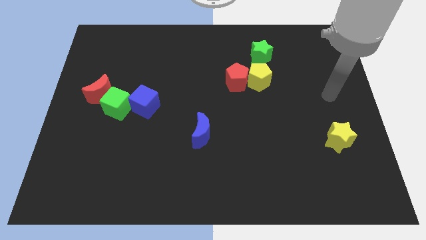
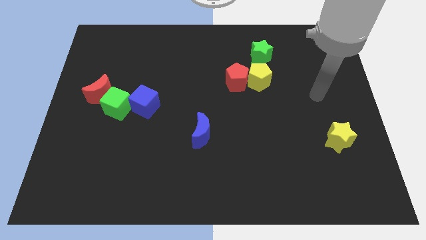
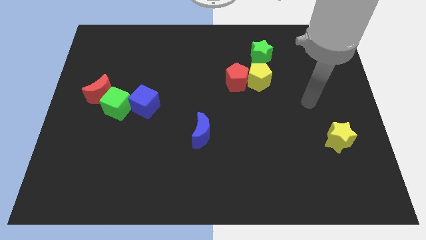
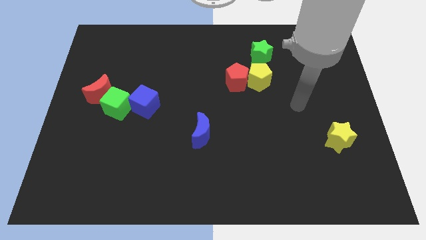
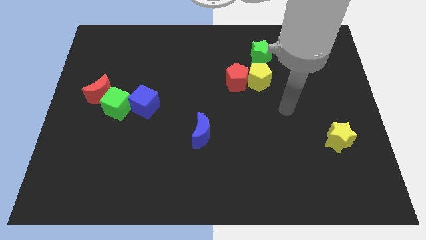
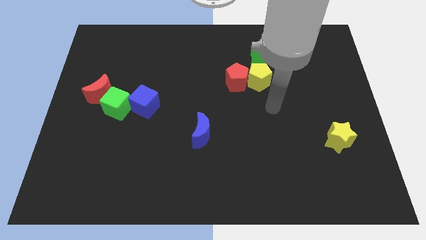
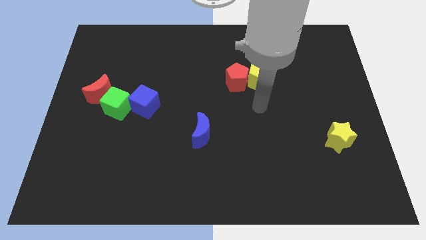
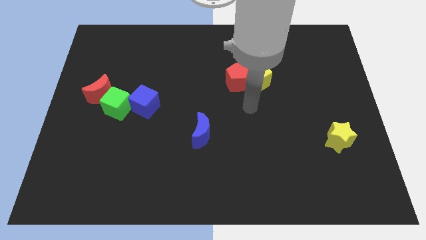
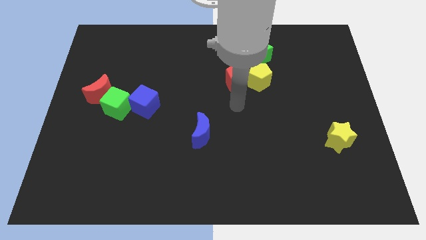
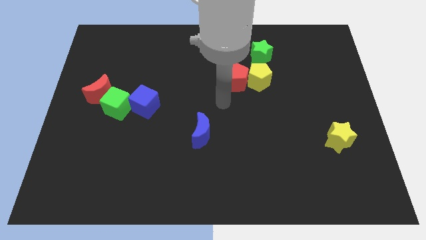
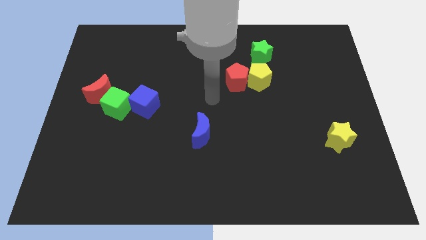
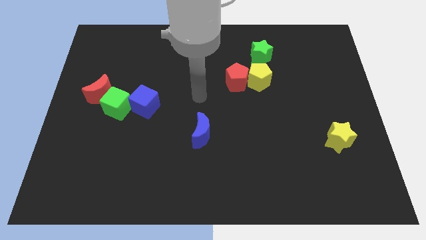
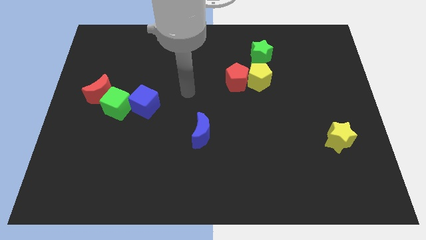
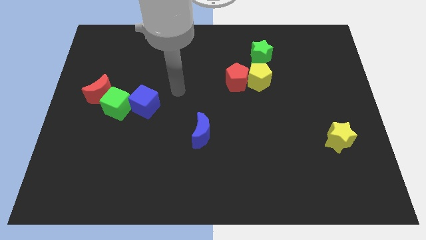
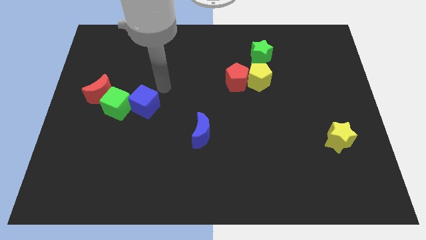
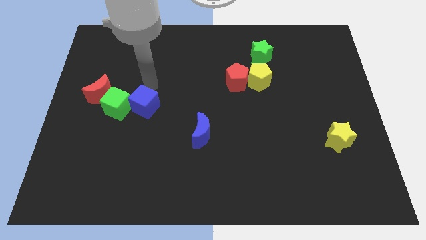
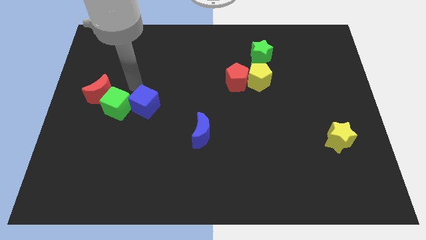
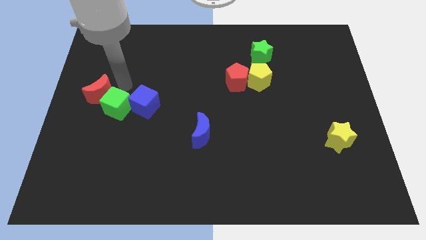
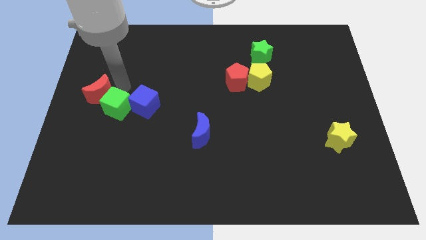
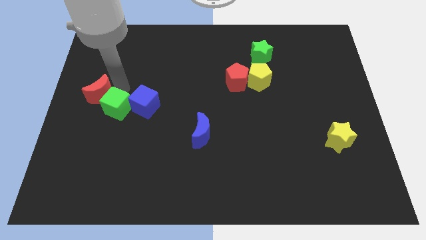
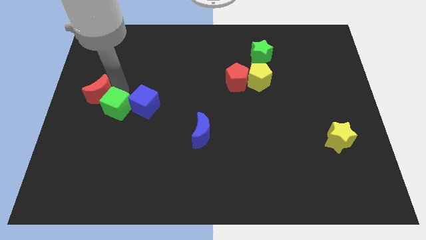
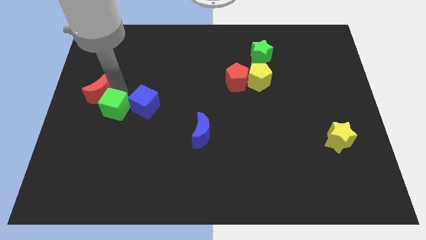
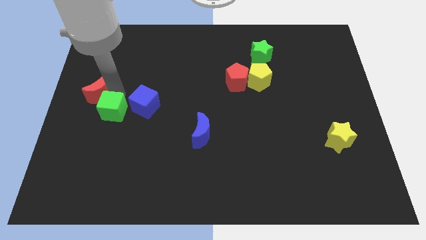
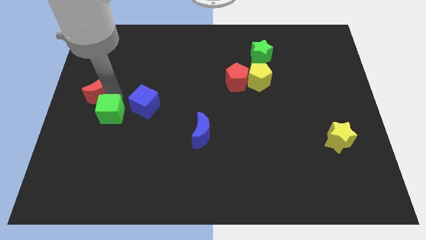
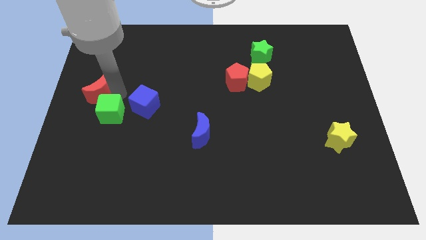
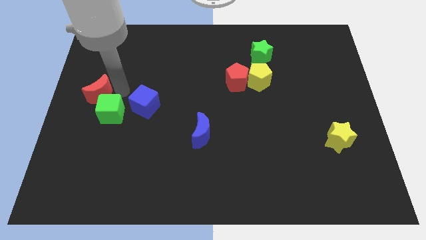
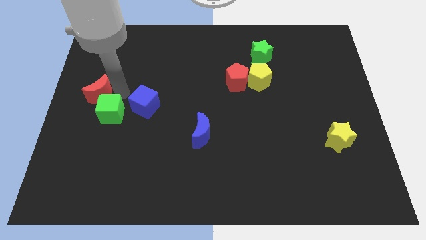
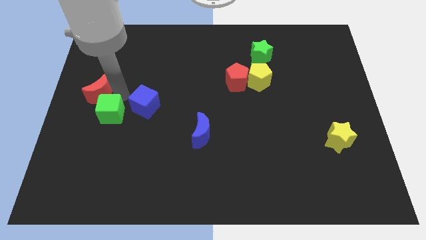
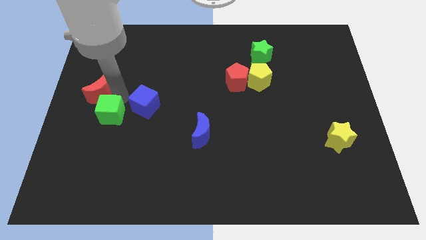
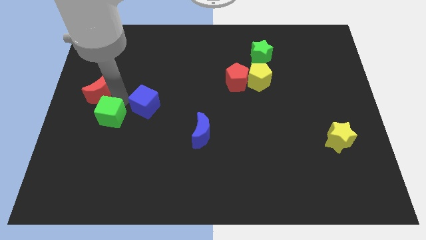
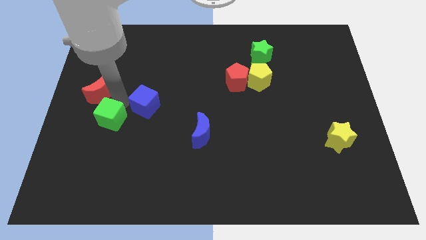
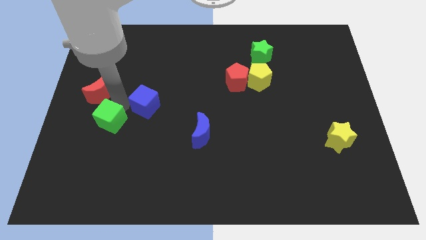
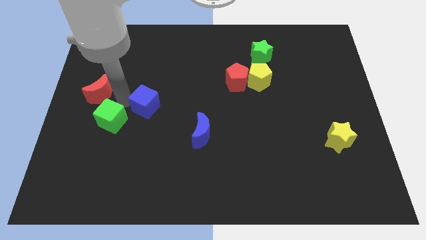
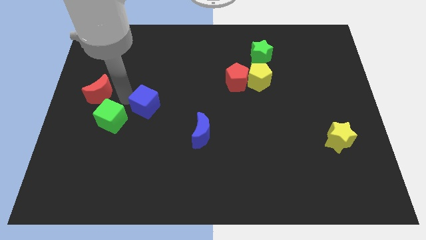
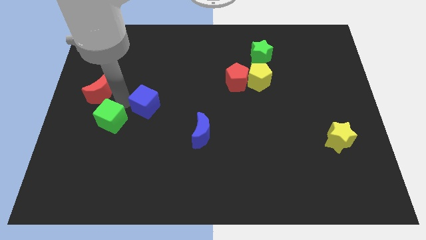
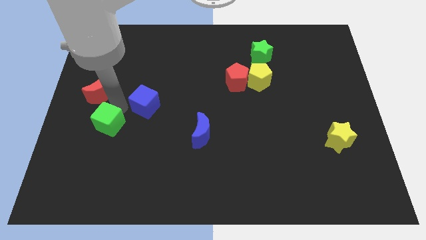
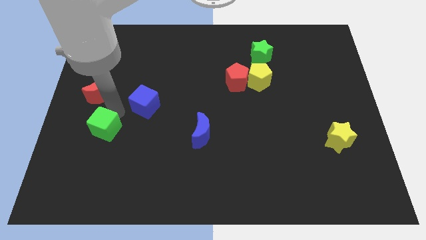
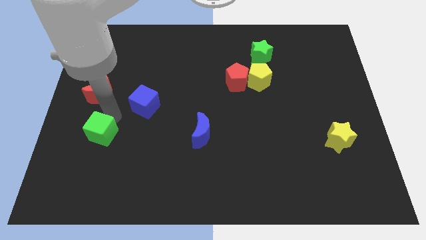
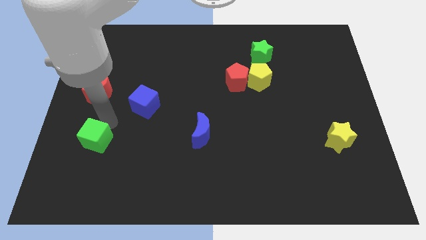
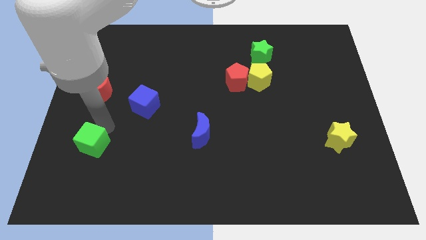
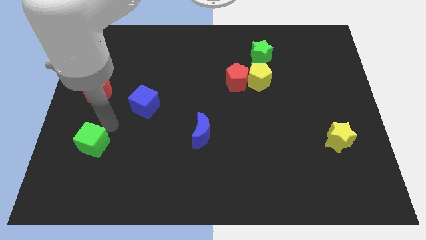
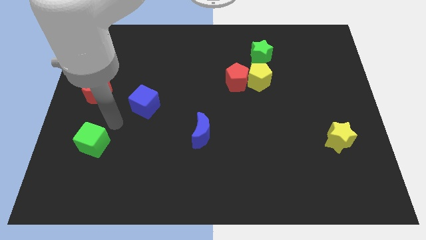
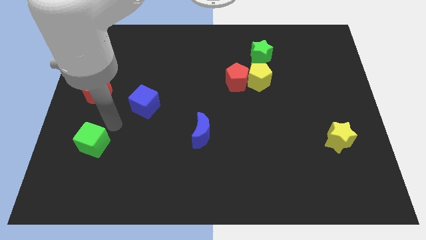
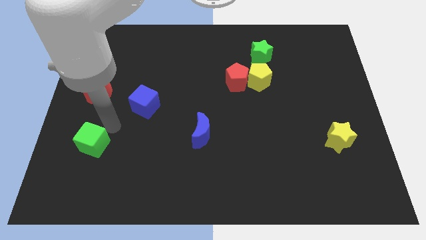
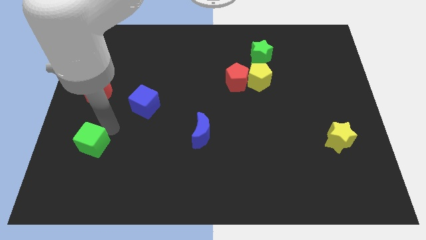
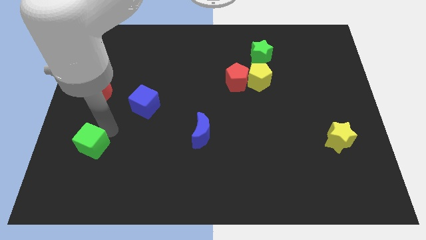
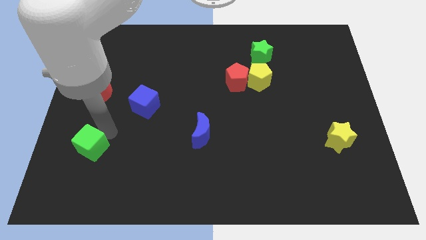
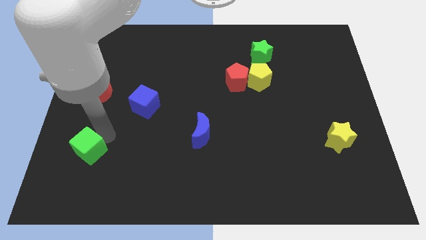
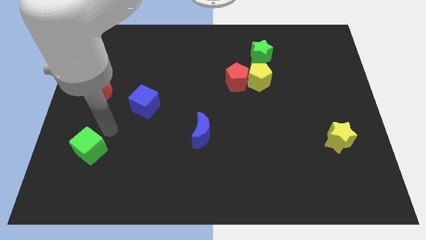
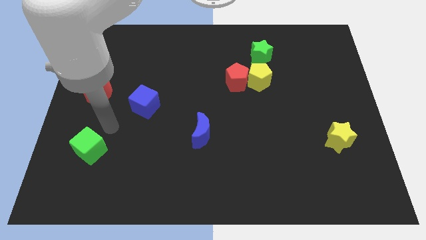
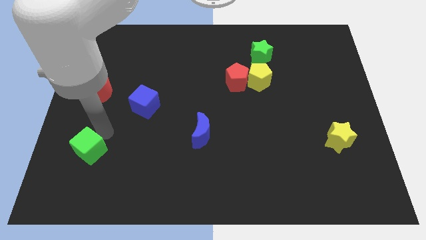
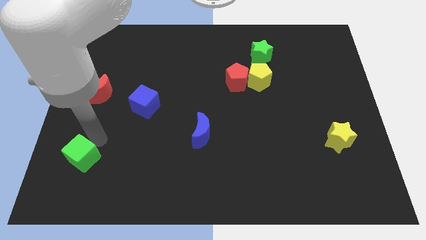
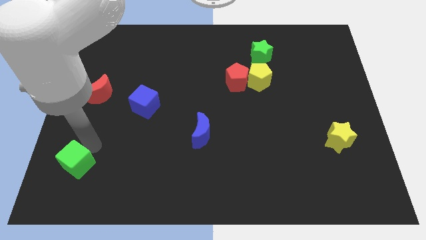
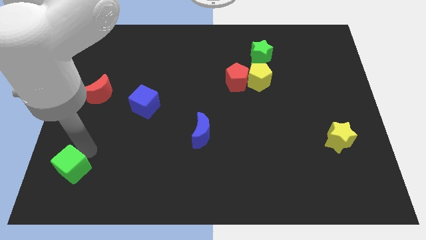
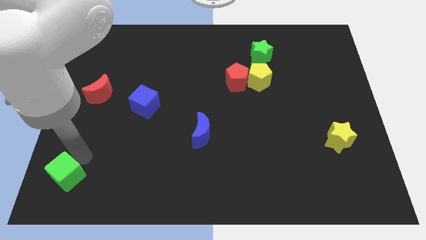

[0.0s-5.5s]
put the green cube to the bottom left
